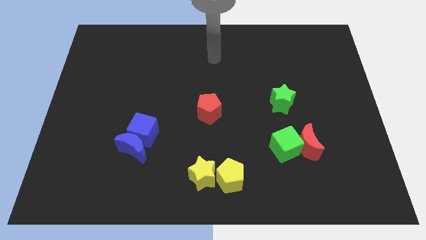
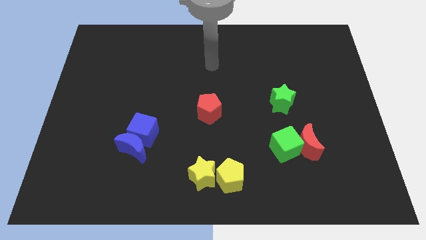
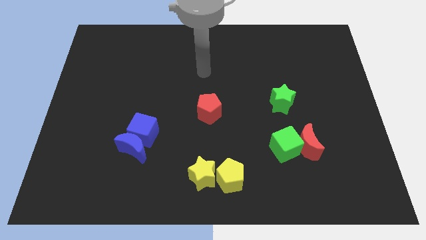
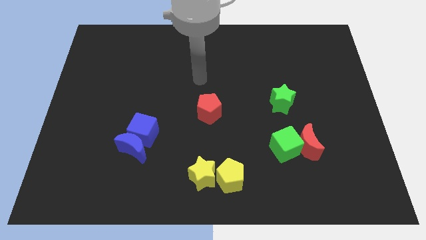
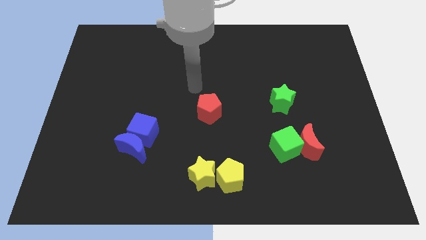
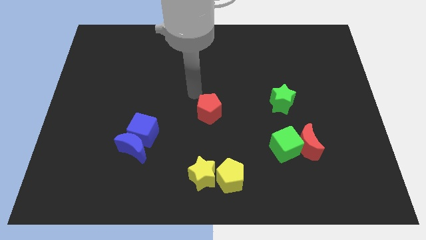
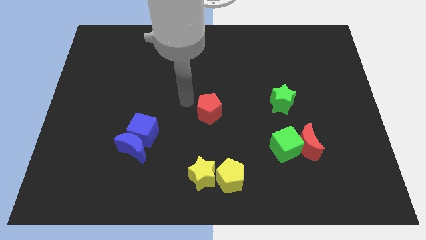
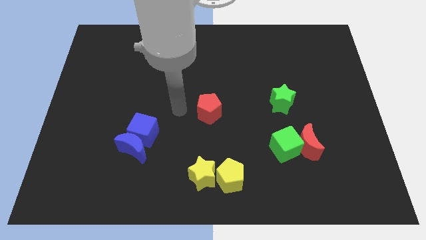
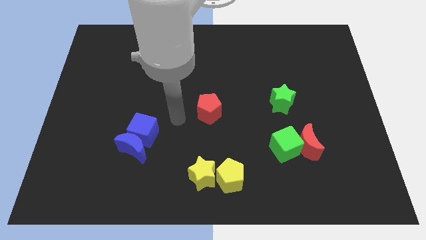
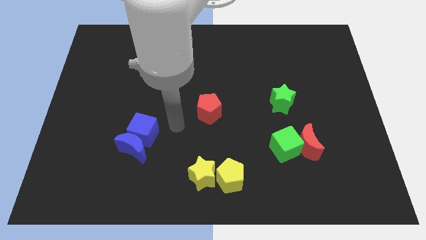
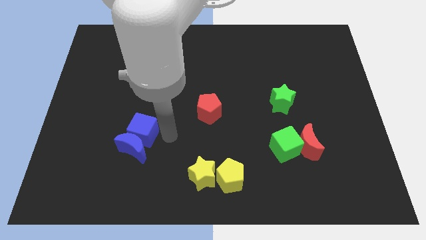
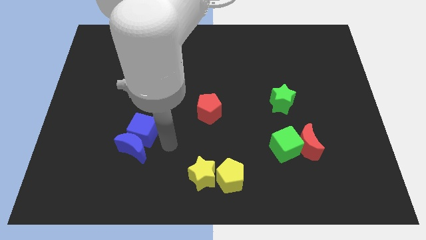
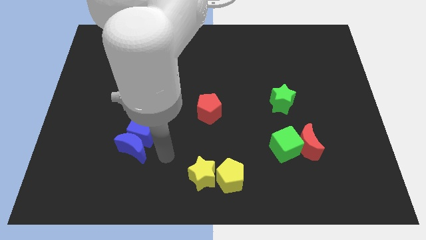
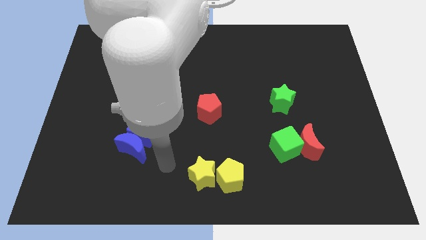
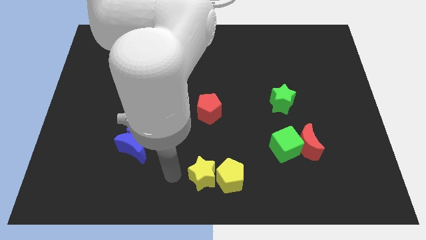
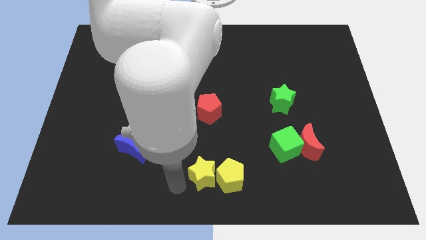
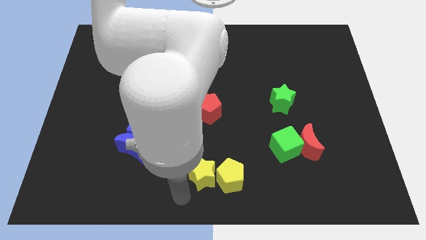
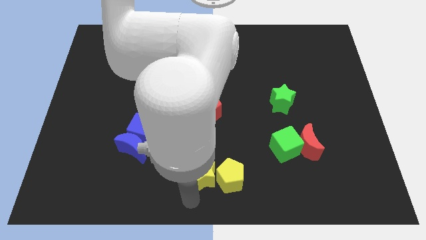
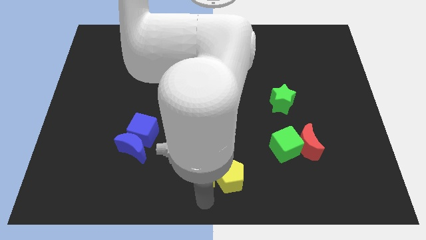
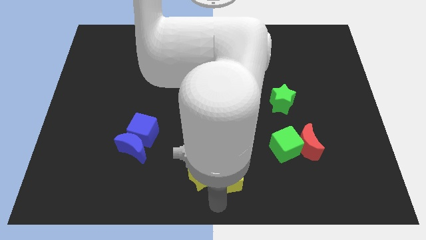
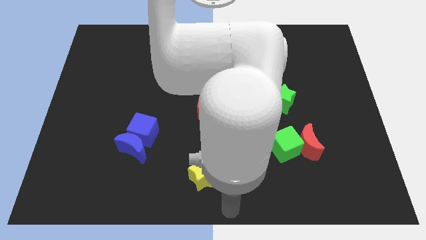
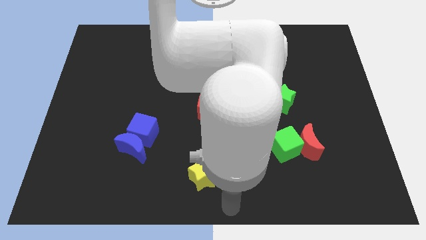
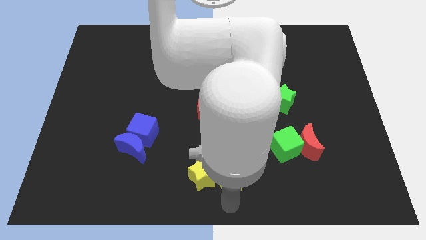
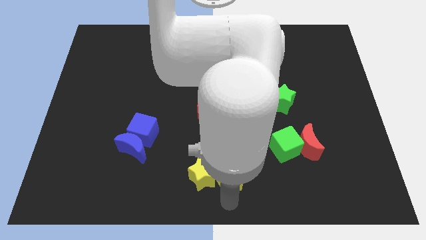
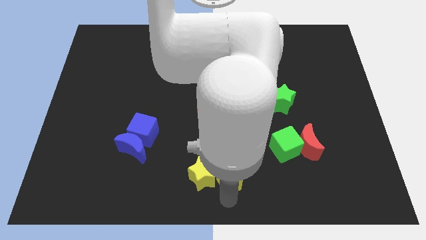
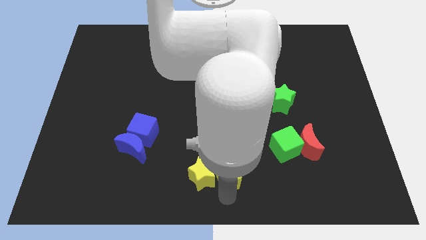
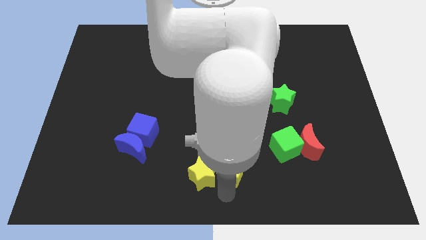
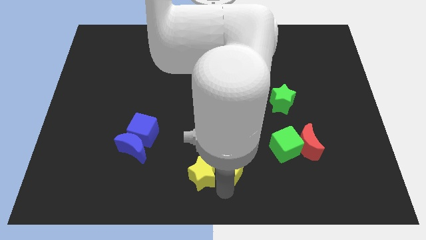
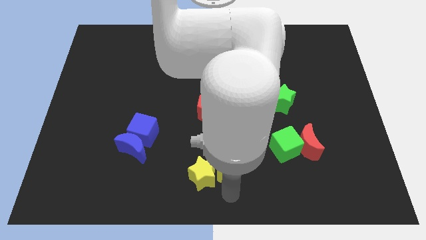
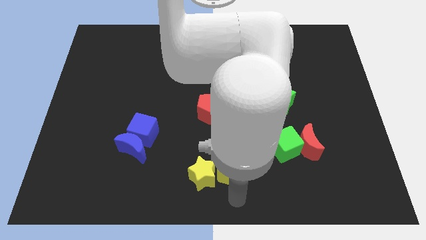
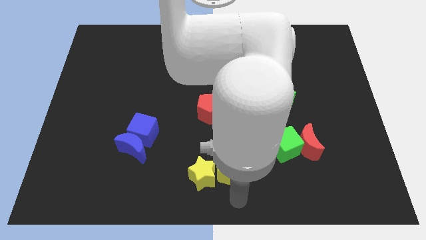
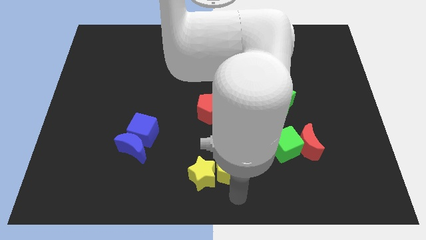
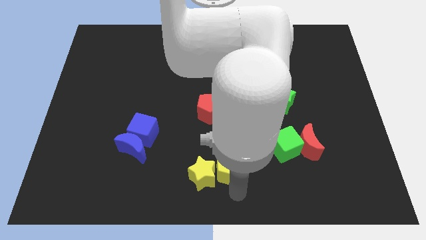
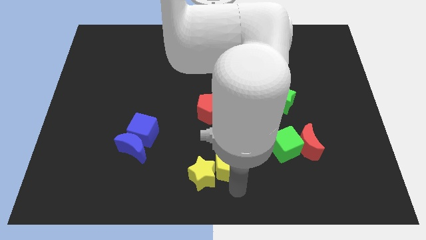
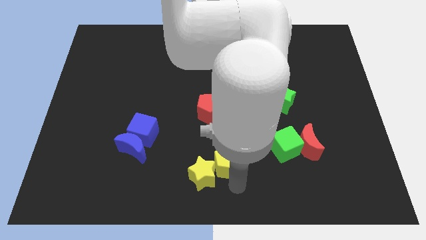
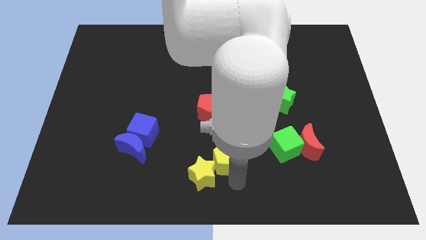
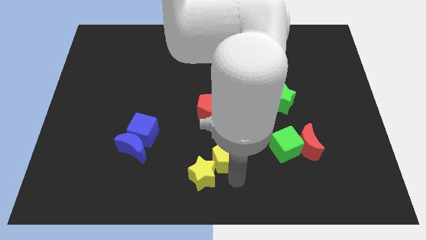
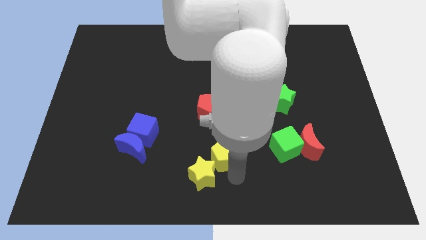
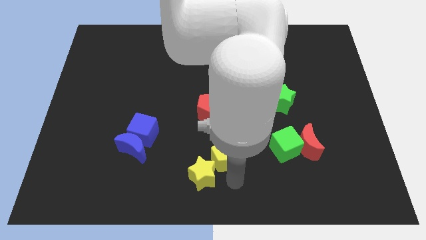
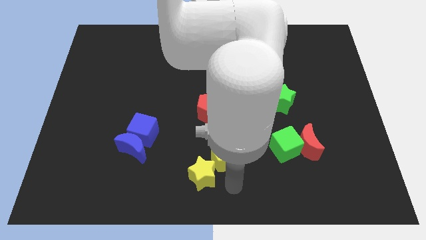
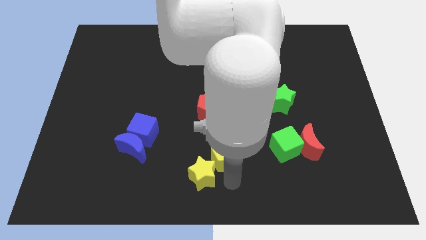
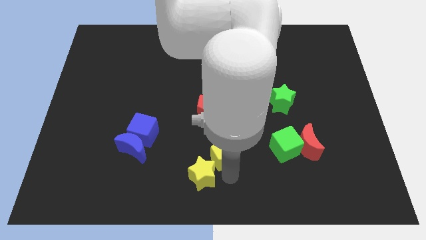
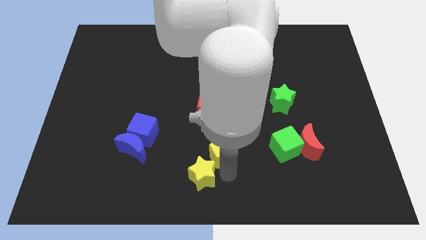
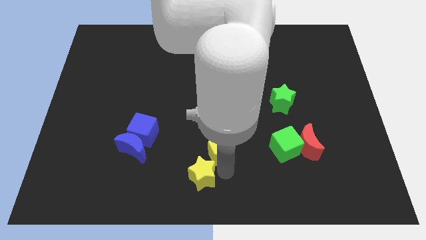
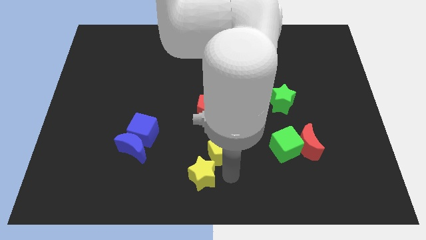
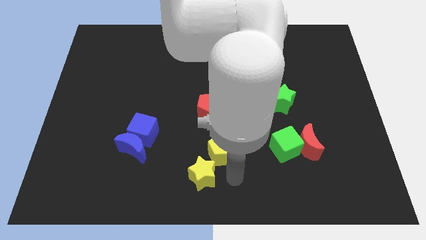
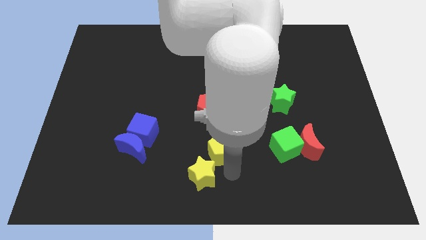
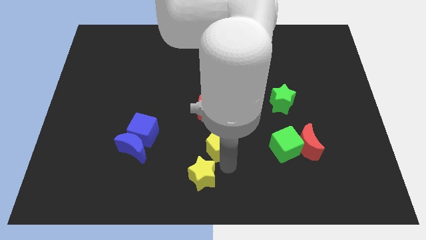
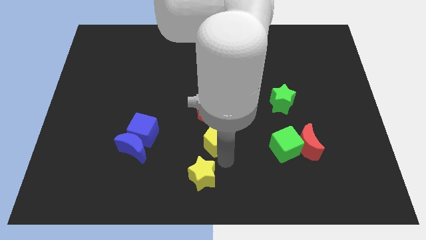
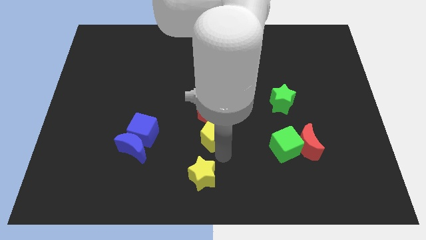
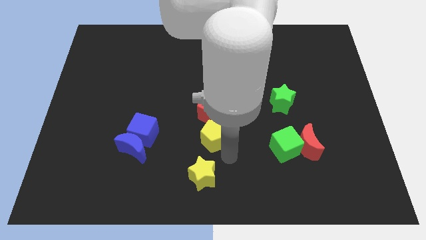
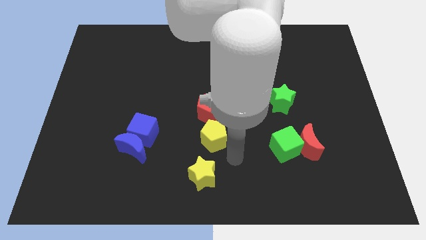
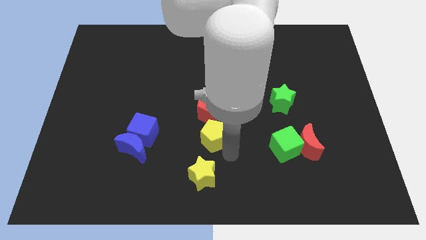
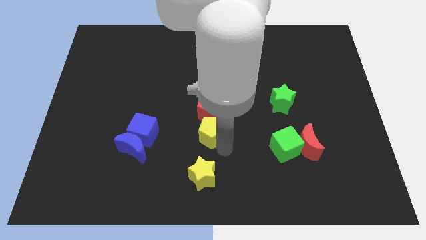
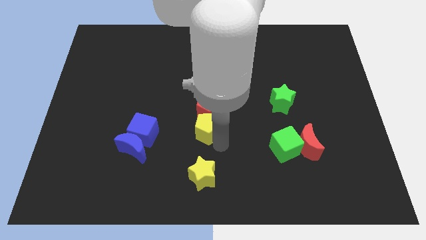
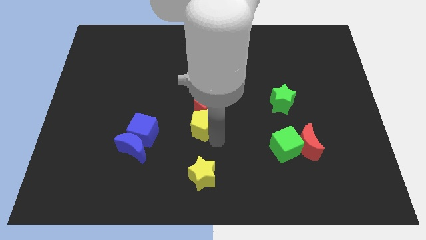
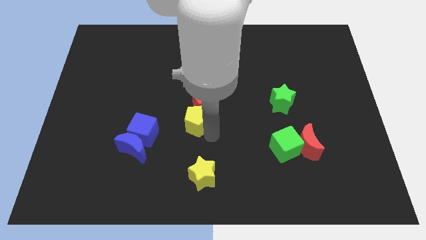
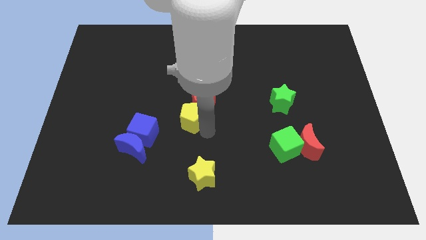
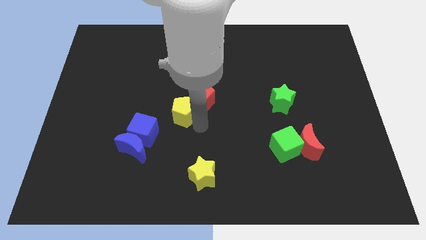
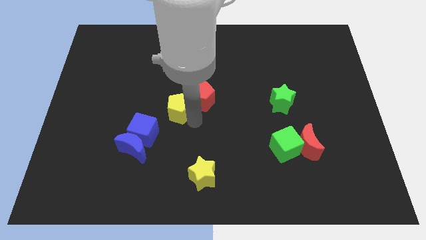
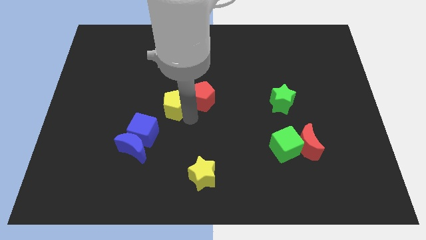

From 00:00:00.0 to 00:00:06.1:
push the yellow pentagon upwards and to the left diagonally

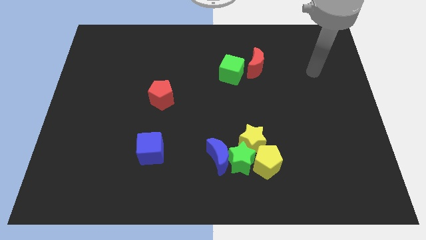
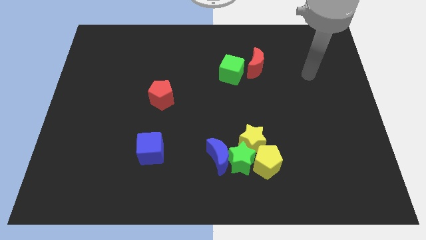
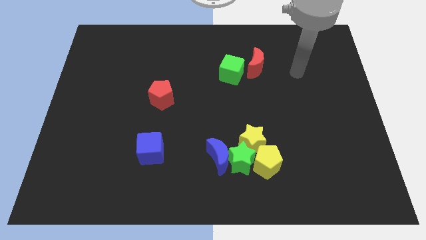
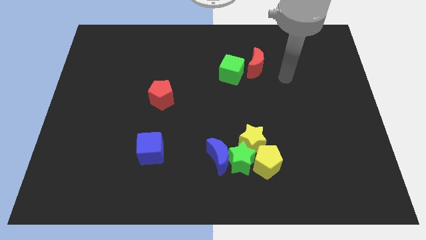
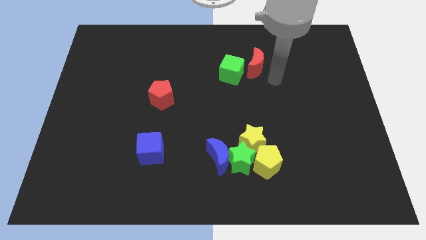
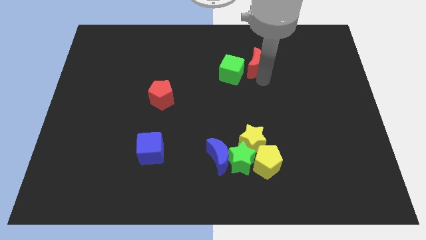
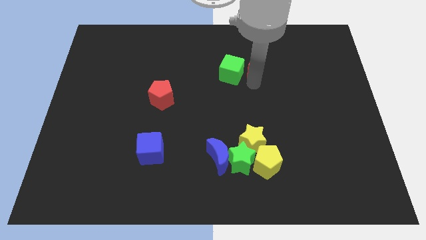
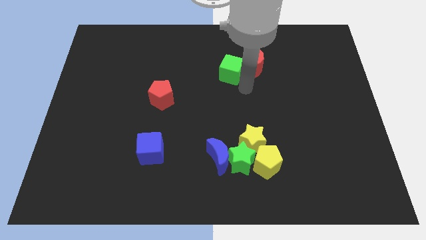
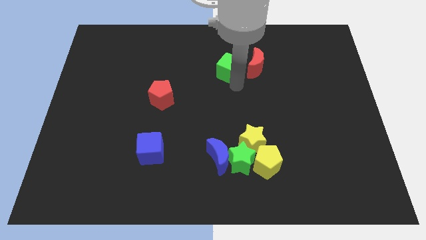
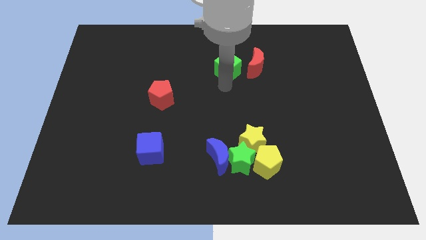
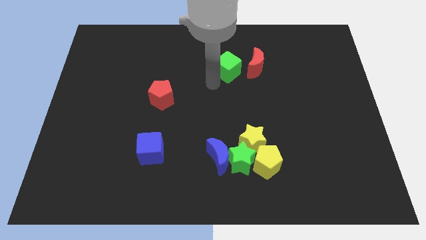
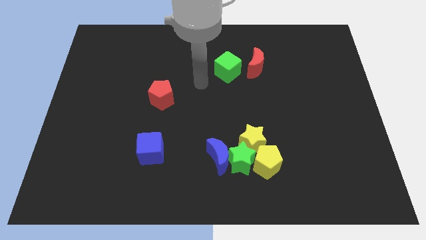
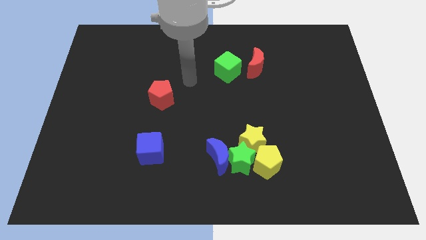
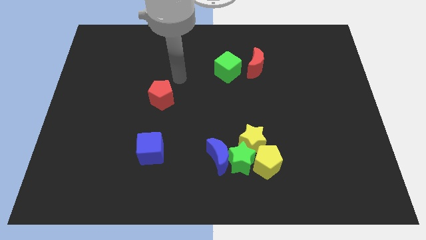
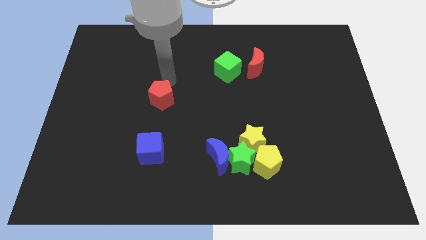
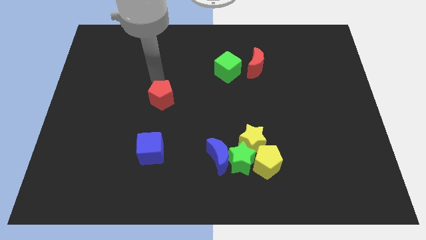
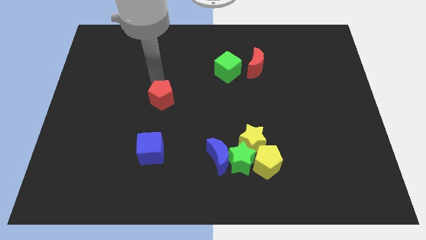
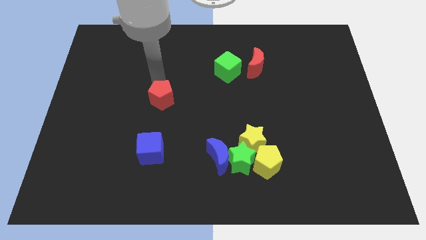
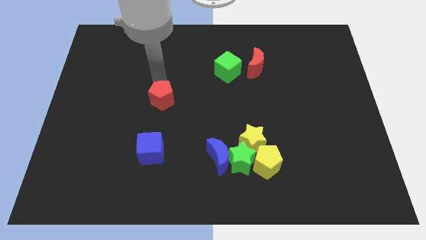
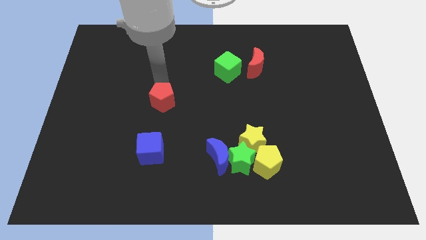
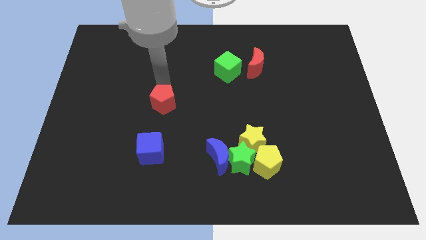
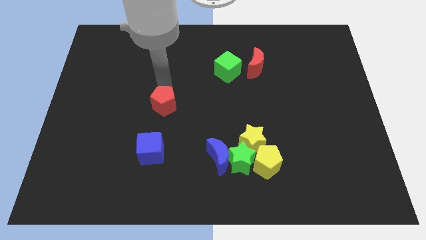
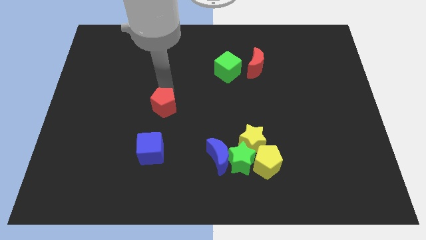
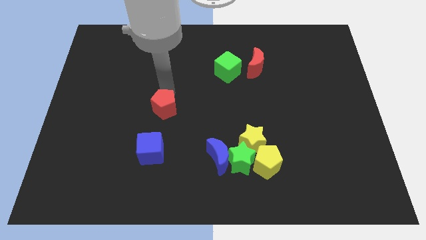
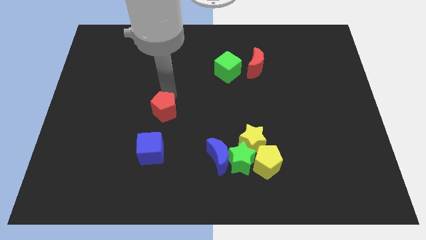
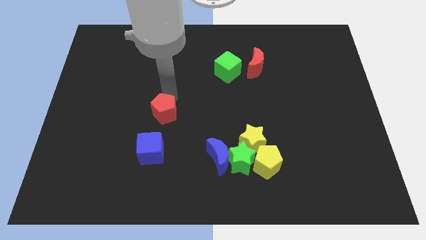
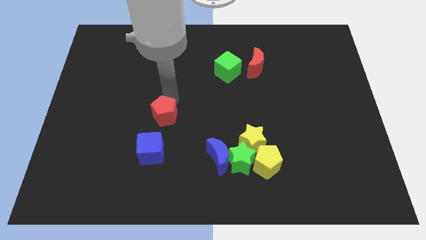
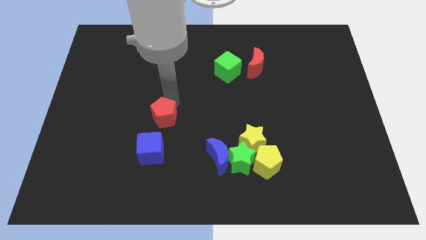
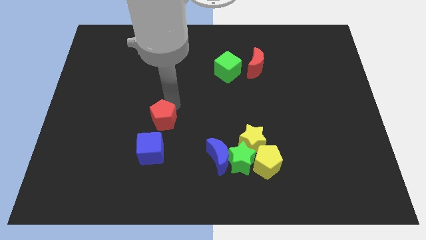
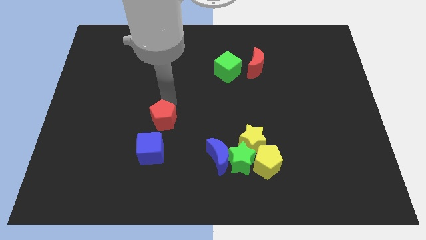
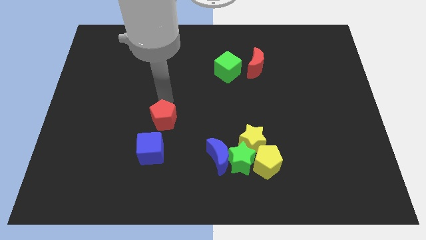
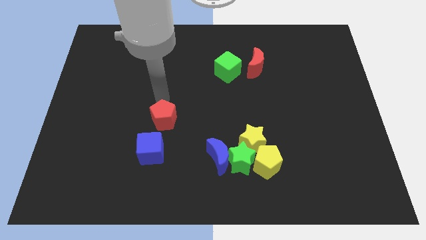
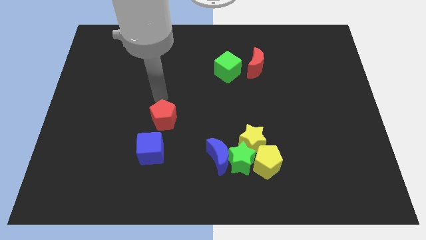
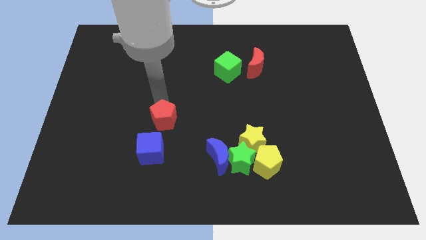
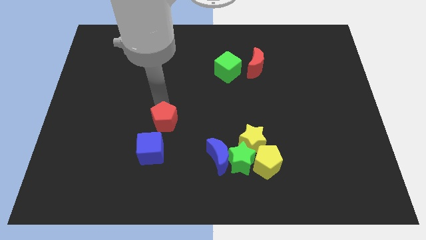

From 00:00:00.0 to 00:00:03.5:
slightly push the red pentagon downwards
